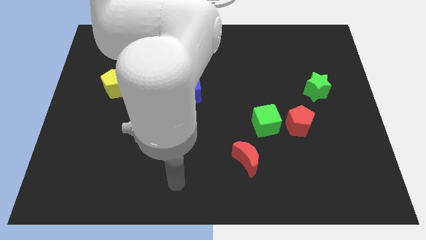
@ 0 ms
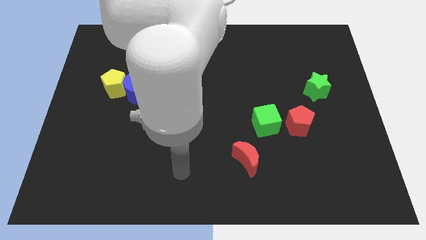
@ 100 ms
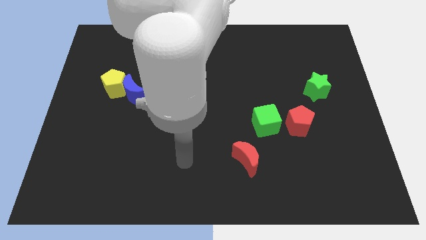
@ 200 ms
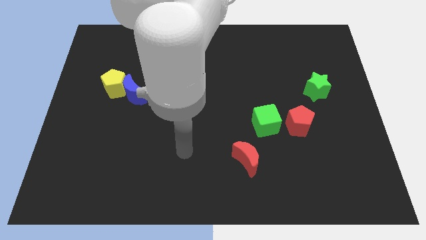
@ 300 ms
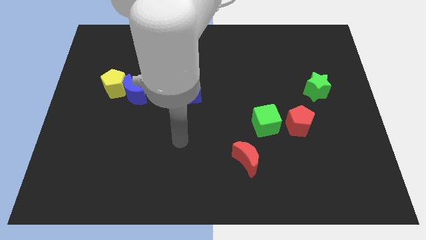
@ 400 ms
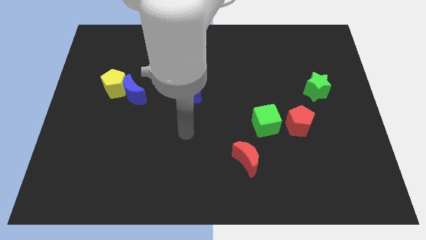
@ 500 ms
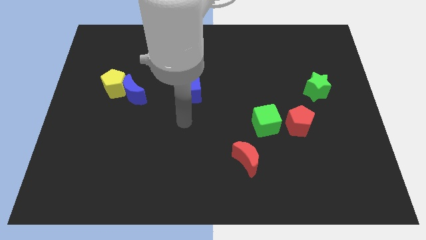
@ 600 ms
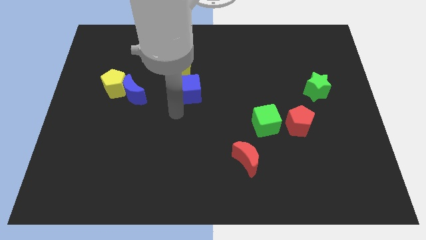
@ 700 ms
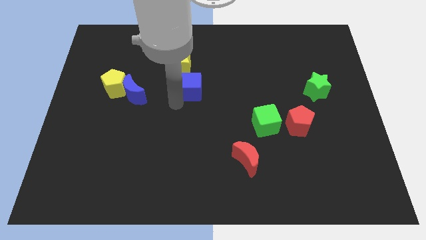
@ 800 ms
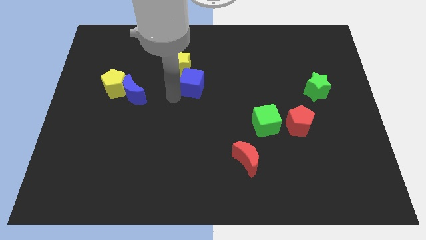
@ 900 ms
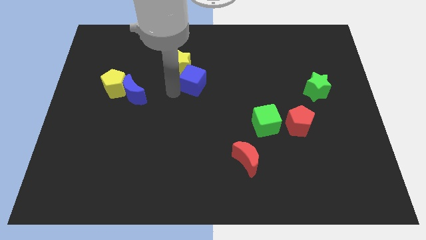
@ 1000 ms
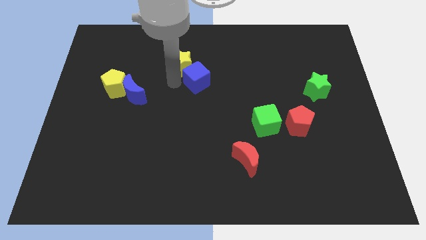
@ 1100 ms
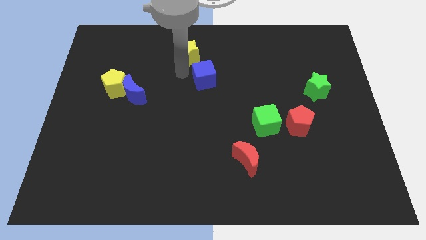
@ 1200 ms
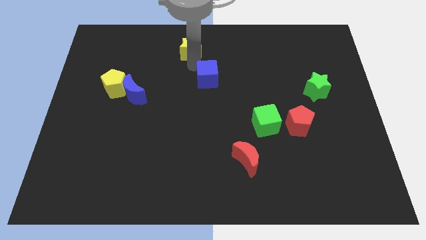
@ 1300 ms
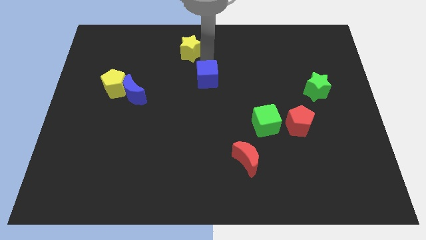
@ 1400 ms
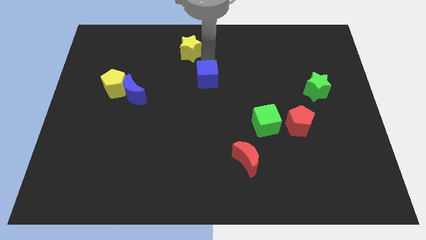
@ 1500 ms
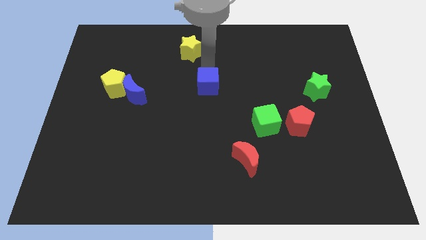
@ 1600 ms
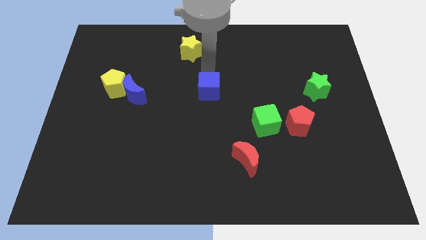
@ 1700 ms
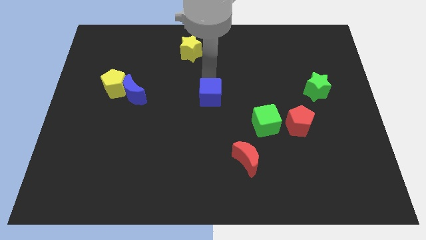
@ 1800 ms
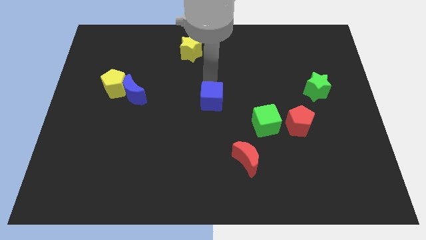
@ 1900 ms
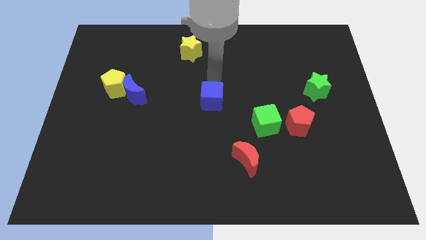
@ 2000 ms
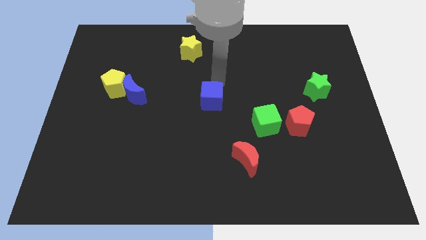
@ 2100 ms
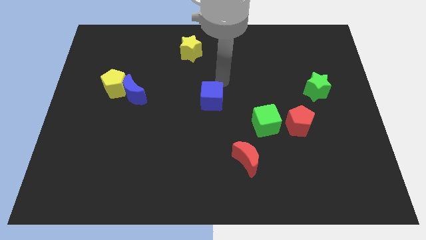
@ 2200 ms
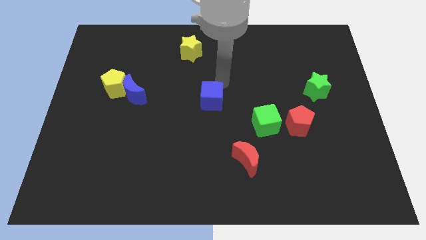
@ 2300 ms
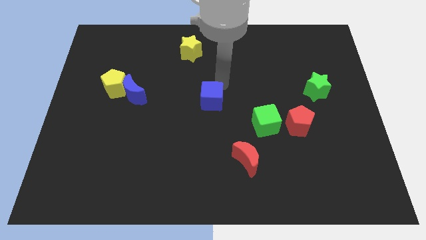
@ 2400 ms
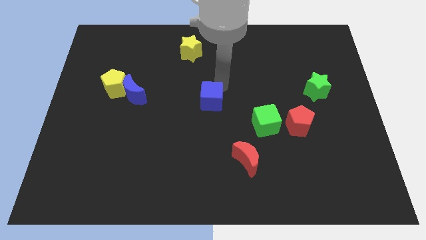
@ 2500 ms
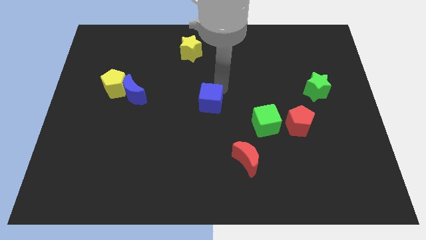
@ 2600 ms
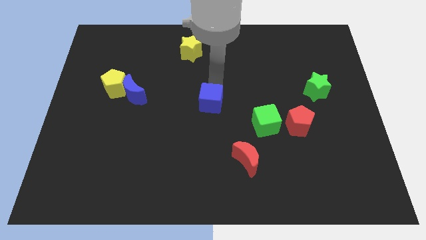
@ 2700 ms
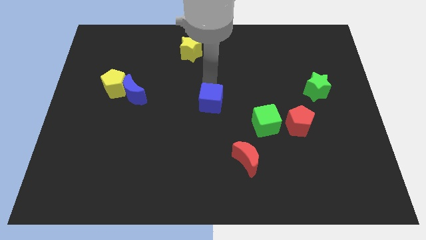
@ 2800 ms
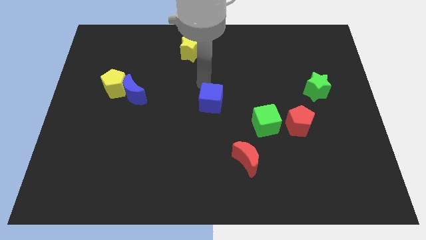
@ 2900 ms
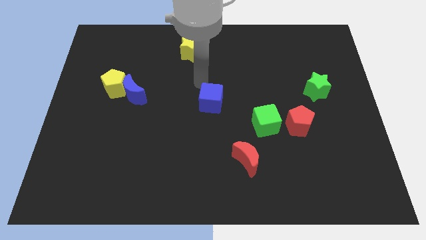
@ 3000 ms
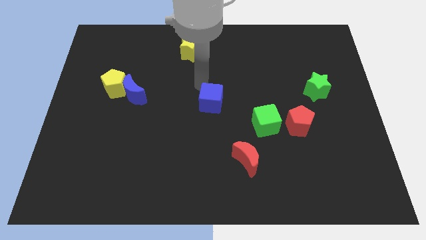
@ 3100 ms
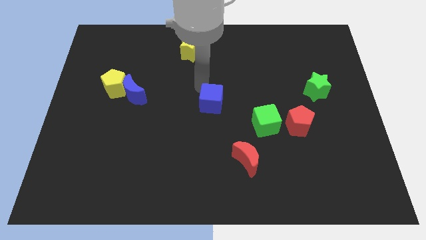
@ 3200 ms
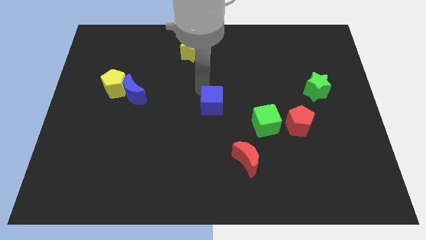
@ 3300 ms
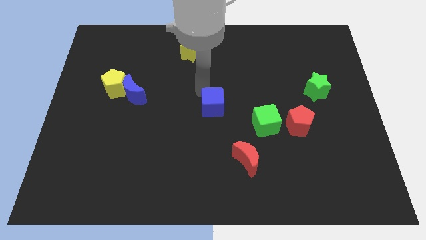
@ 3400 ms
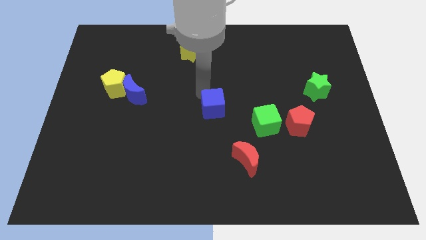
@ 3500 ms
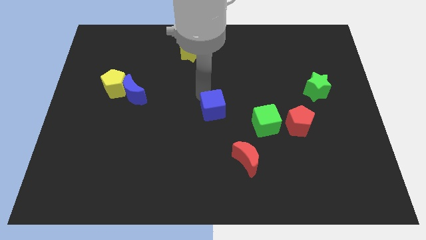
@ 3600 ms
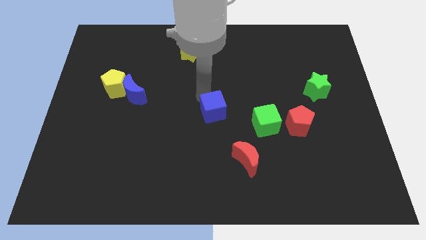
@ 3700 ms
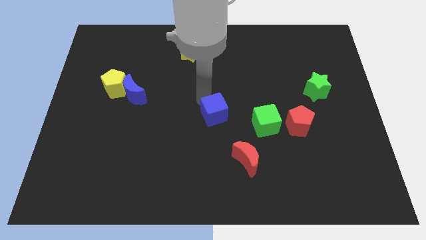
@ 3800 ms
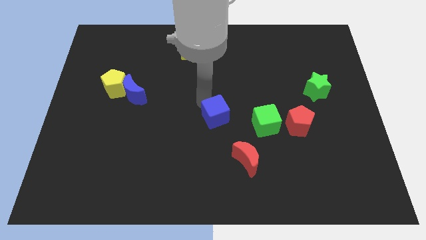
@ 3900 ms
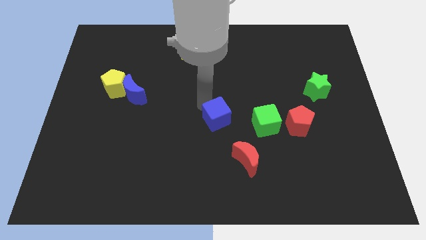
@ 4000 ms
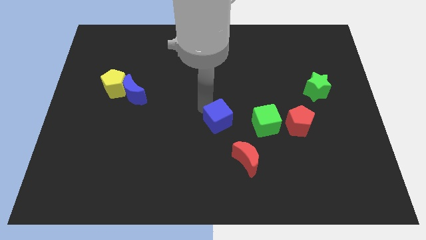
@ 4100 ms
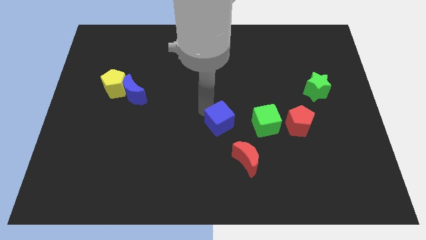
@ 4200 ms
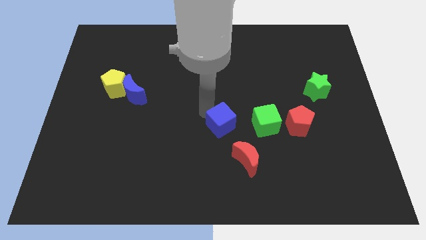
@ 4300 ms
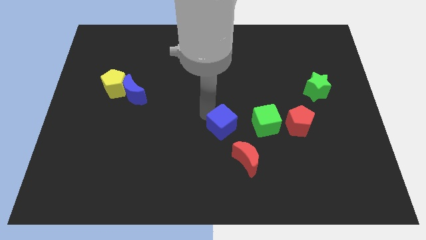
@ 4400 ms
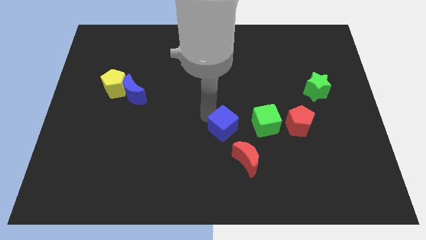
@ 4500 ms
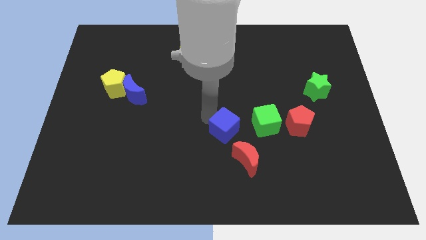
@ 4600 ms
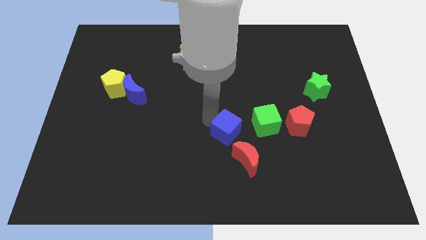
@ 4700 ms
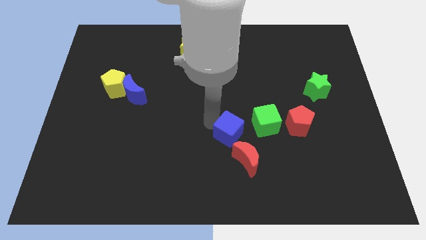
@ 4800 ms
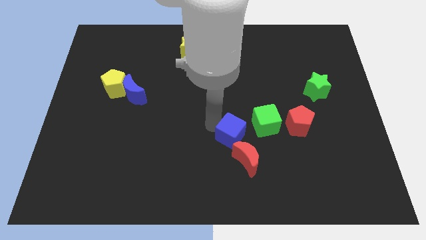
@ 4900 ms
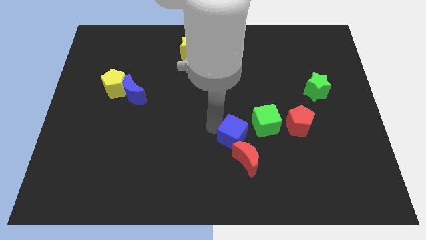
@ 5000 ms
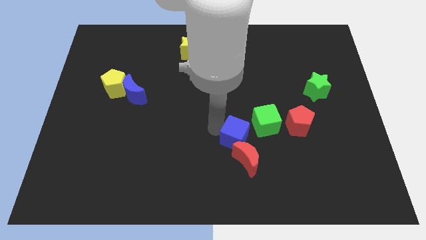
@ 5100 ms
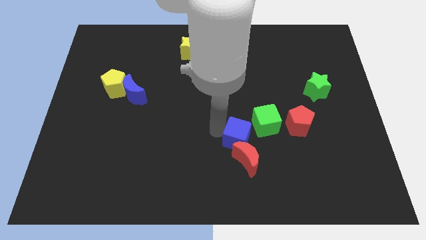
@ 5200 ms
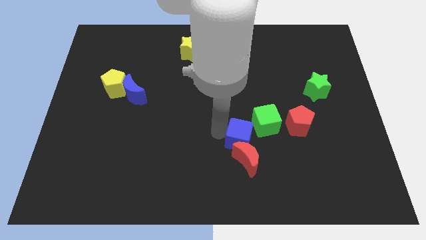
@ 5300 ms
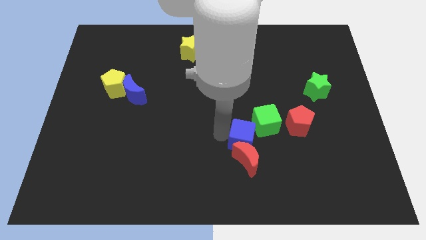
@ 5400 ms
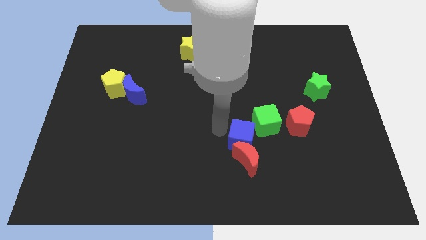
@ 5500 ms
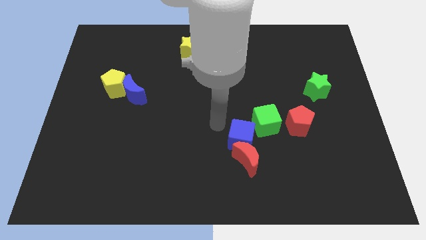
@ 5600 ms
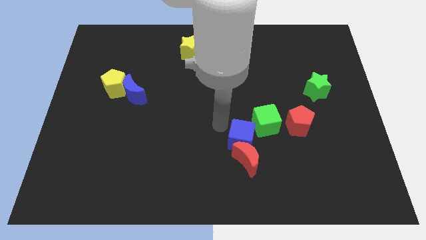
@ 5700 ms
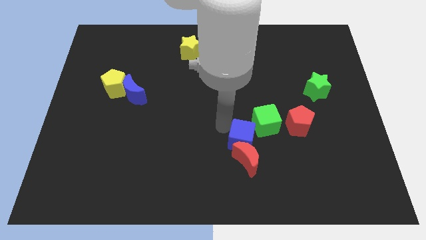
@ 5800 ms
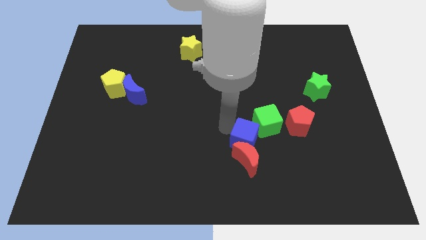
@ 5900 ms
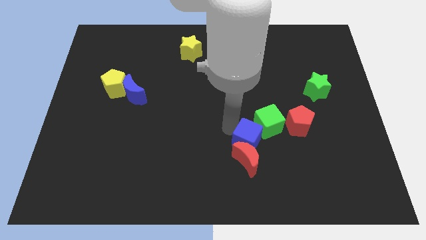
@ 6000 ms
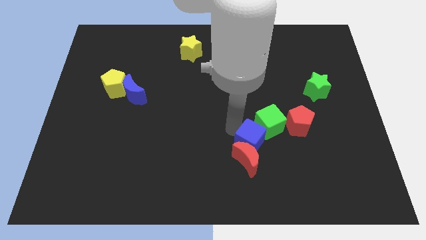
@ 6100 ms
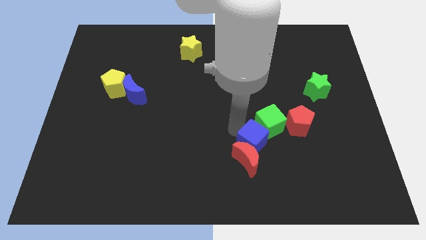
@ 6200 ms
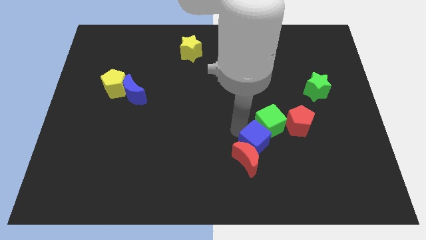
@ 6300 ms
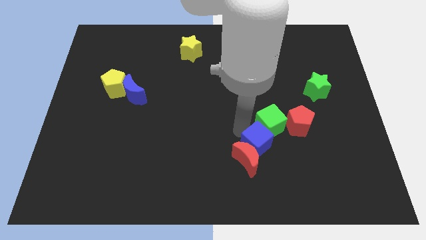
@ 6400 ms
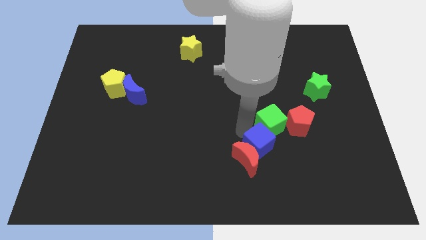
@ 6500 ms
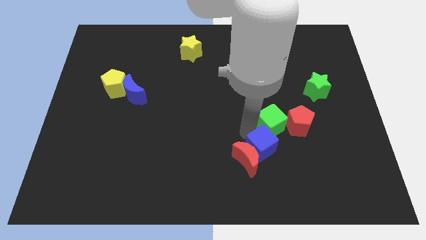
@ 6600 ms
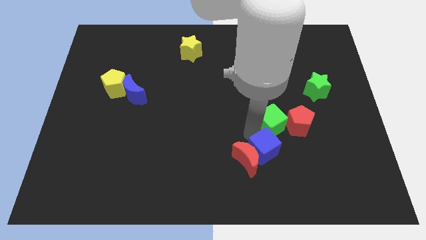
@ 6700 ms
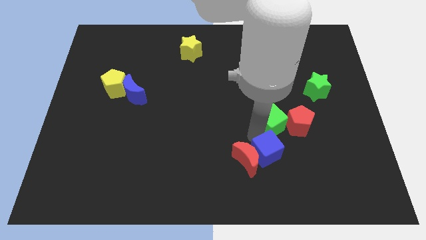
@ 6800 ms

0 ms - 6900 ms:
move the blue cube diagonally down and to the right of the red moon
